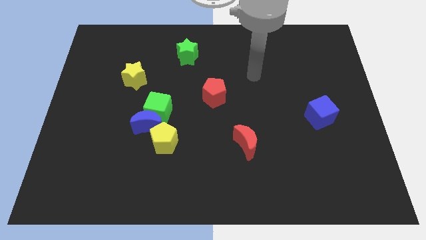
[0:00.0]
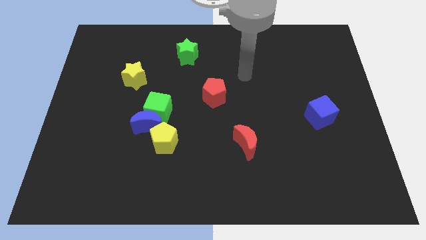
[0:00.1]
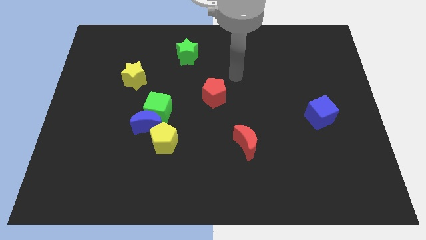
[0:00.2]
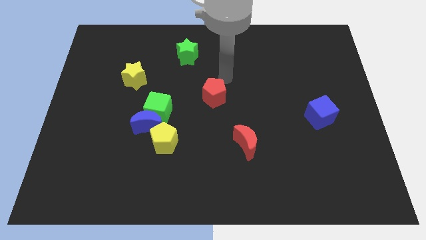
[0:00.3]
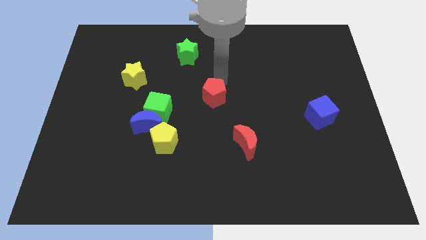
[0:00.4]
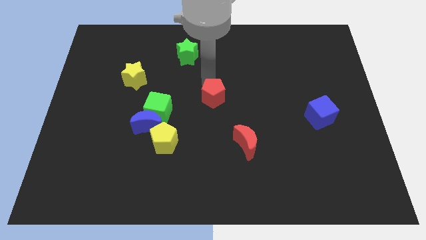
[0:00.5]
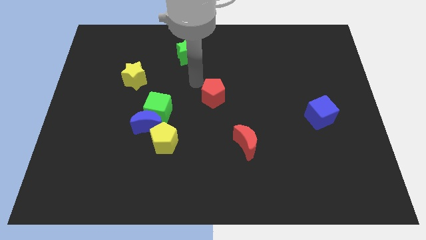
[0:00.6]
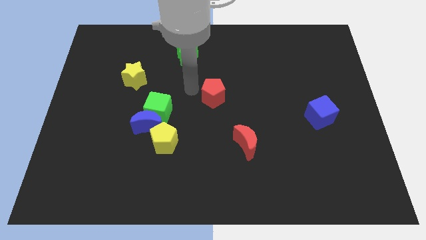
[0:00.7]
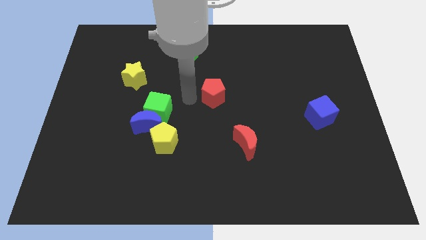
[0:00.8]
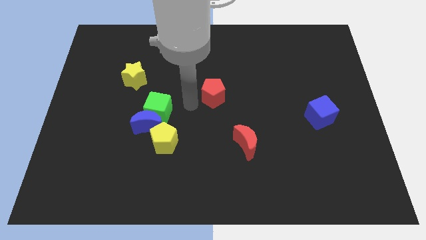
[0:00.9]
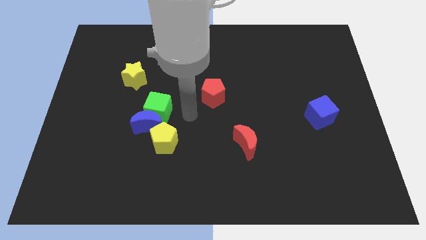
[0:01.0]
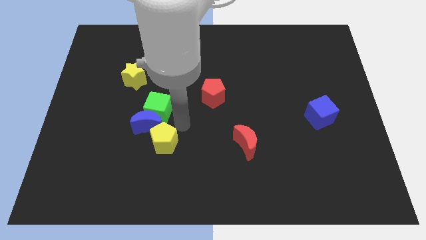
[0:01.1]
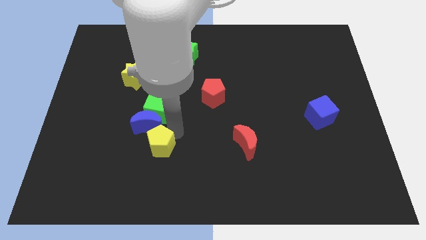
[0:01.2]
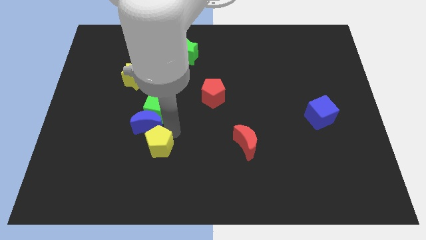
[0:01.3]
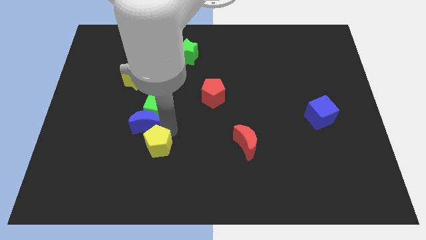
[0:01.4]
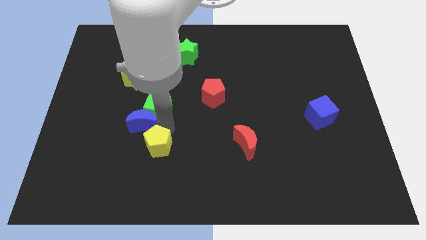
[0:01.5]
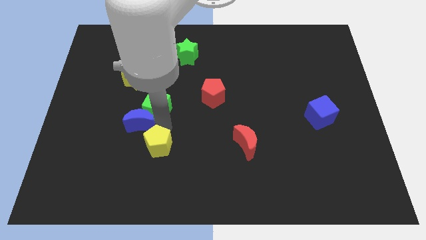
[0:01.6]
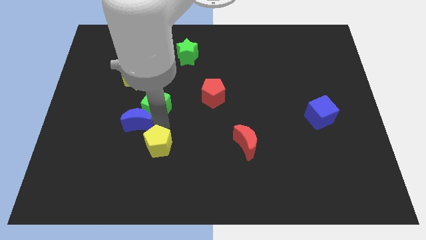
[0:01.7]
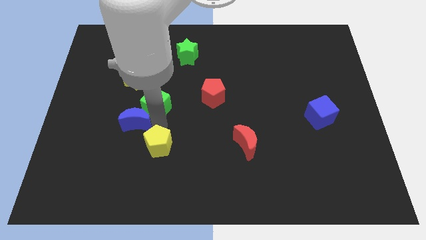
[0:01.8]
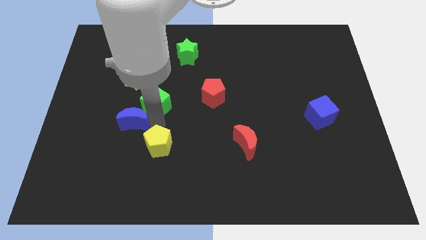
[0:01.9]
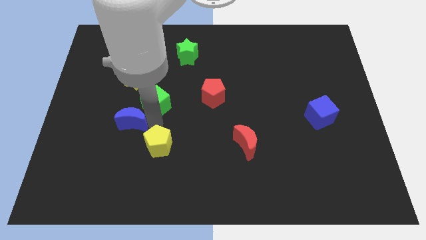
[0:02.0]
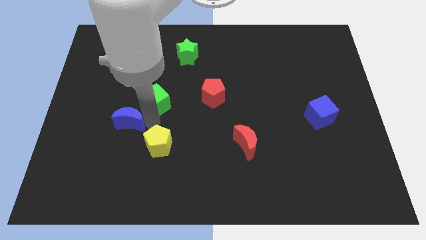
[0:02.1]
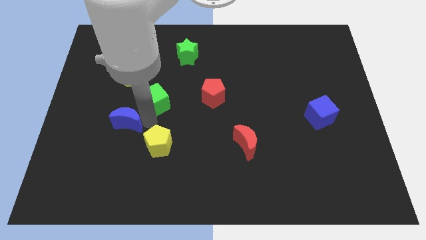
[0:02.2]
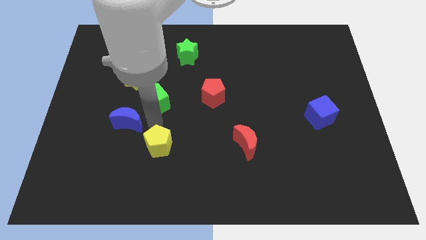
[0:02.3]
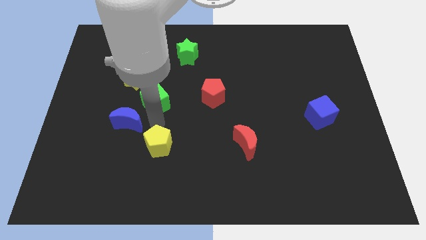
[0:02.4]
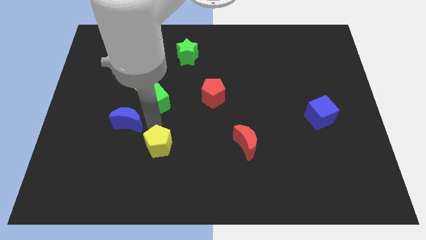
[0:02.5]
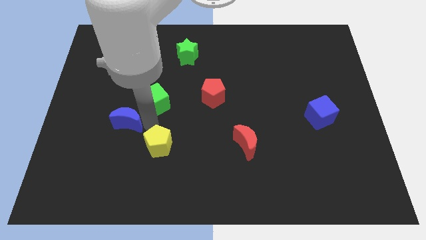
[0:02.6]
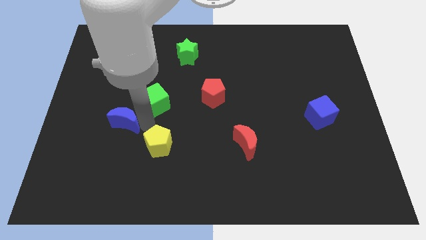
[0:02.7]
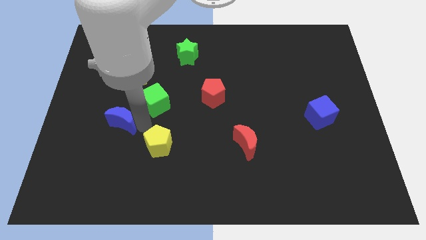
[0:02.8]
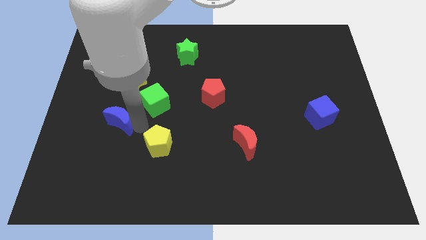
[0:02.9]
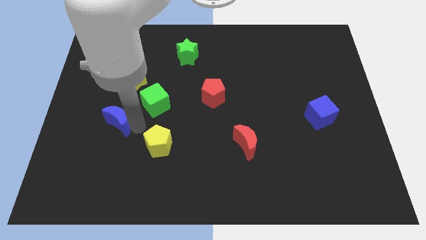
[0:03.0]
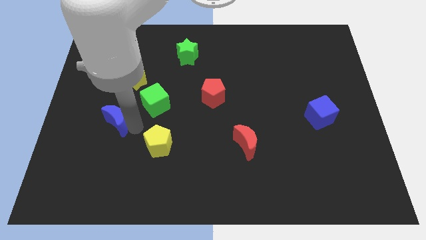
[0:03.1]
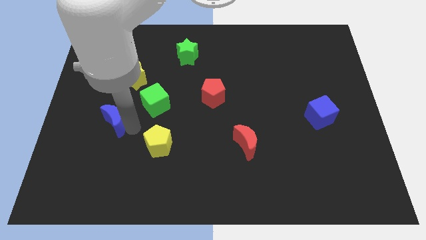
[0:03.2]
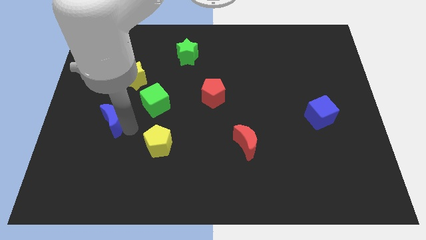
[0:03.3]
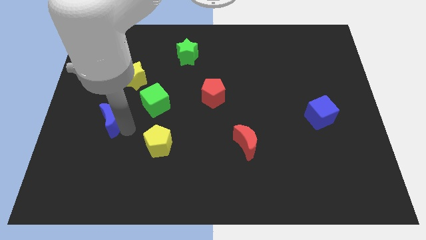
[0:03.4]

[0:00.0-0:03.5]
pull the blue moon apart from the green cube and yellow pentagon

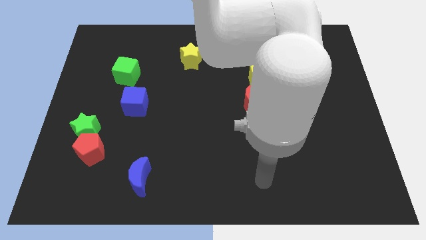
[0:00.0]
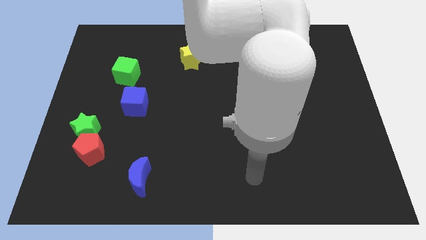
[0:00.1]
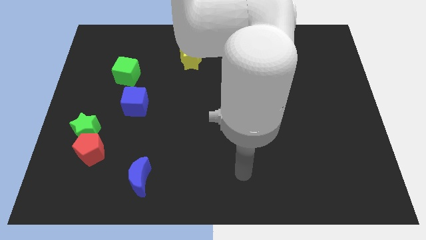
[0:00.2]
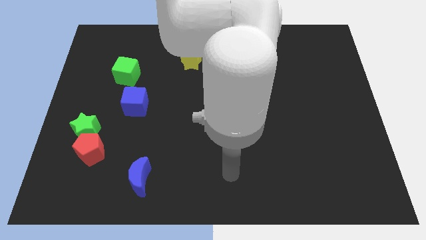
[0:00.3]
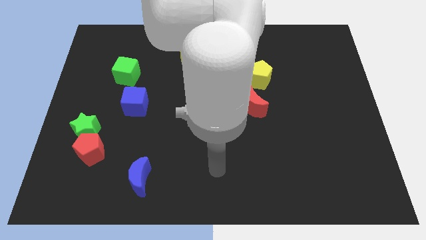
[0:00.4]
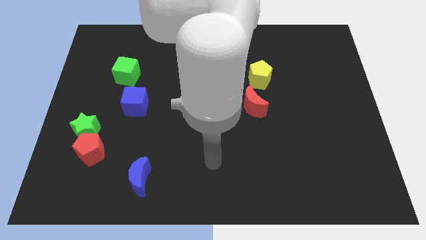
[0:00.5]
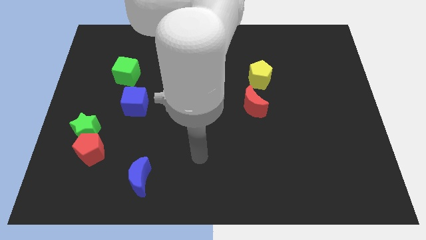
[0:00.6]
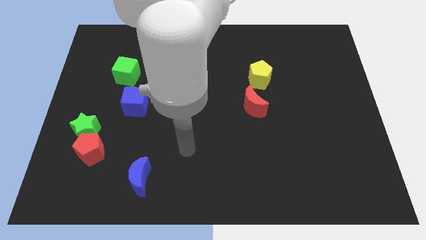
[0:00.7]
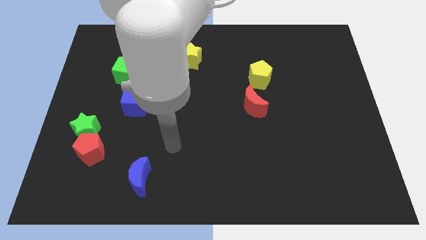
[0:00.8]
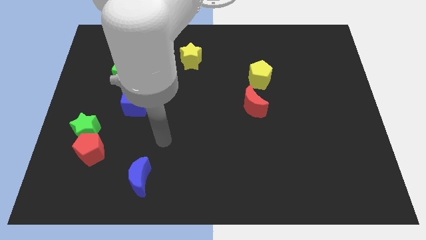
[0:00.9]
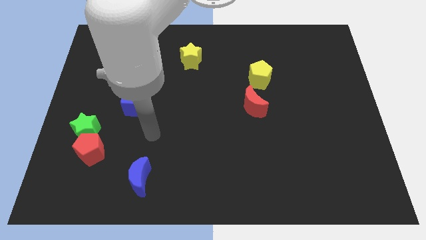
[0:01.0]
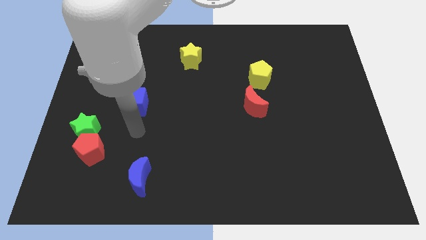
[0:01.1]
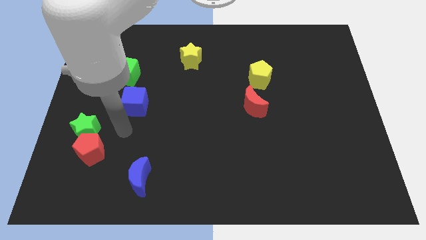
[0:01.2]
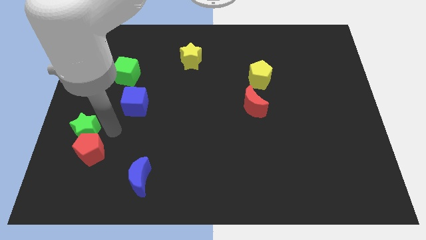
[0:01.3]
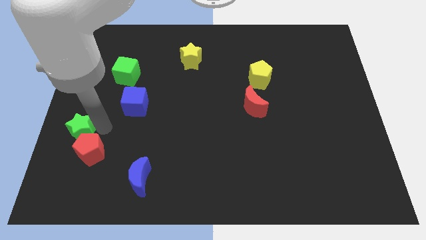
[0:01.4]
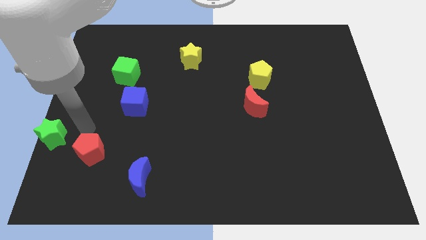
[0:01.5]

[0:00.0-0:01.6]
move the red pentagon away from the green star

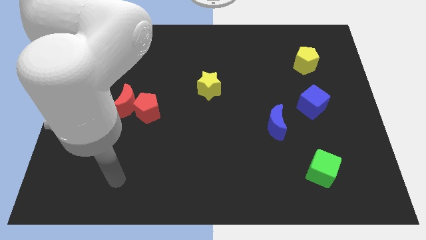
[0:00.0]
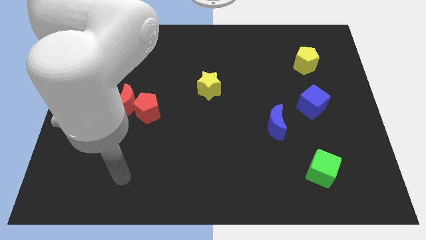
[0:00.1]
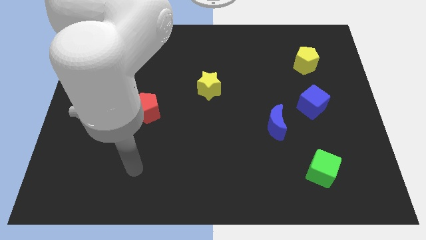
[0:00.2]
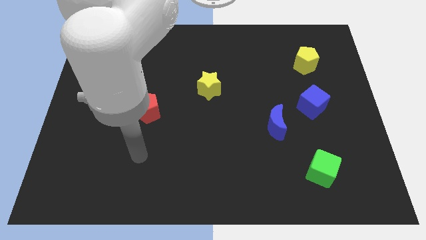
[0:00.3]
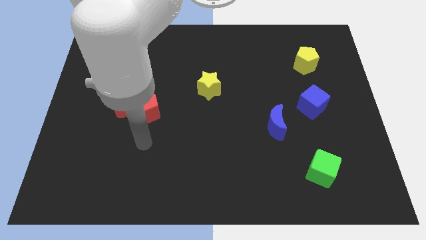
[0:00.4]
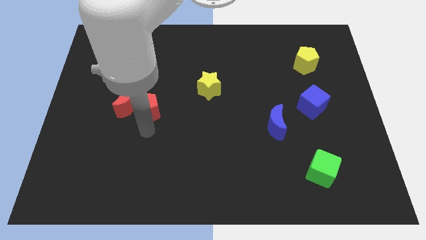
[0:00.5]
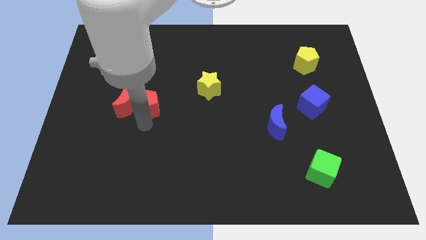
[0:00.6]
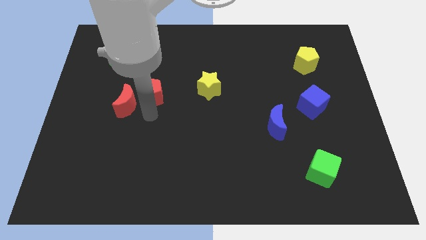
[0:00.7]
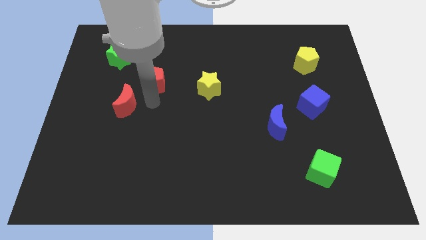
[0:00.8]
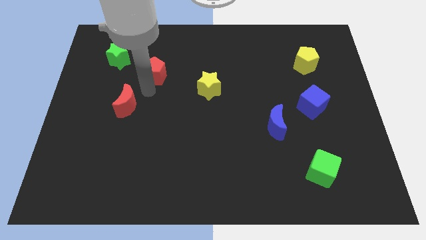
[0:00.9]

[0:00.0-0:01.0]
separate the red moon from the red pentagon

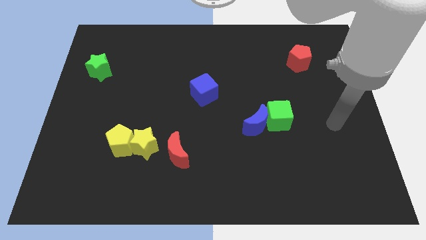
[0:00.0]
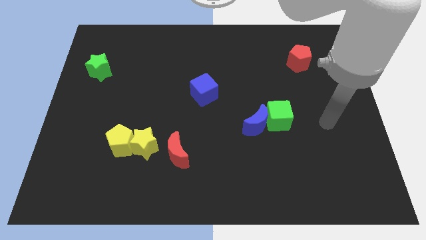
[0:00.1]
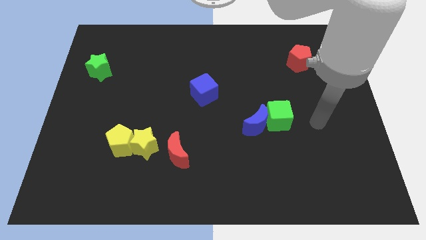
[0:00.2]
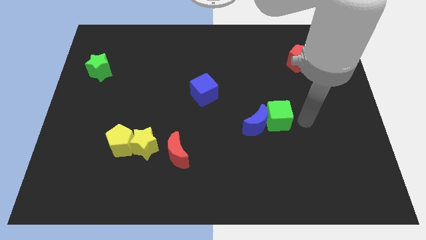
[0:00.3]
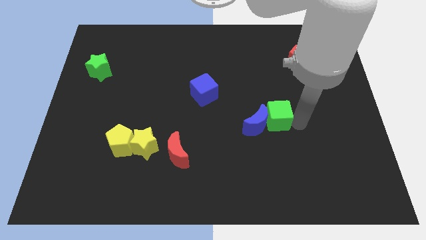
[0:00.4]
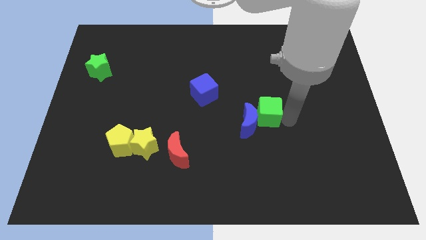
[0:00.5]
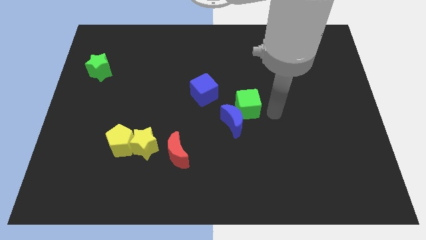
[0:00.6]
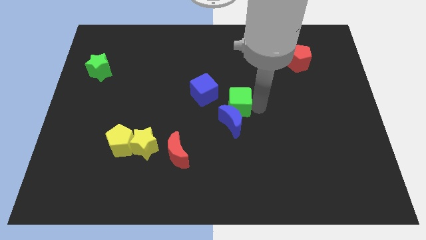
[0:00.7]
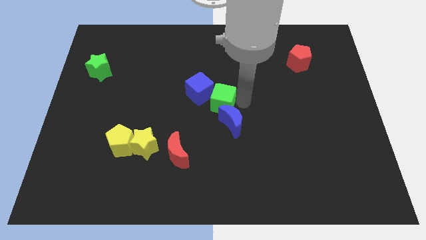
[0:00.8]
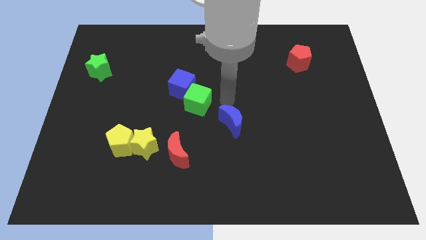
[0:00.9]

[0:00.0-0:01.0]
move the blue moon away from the green cube

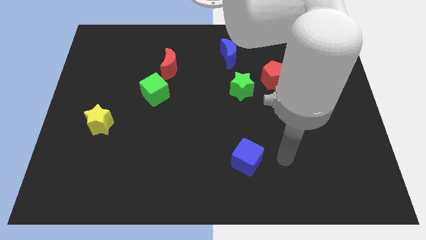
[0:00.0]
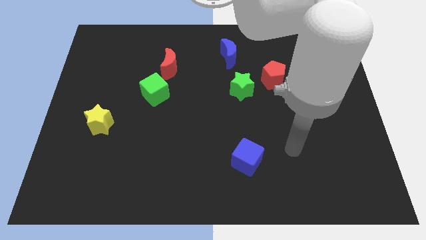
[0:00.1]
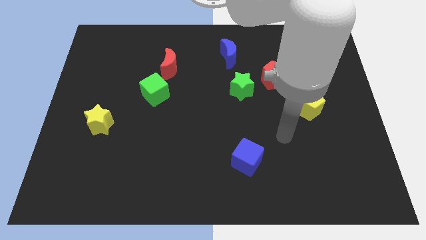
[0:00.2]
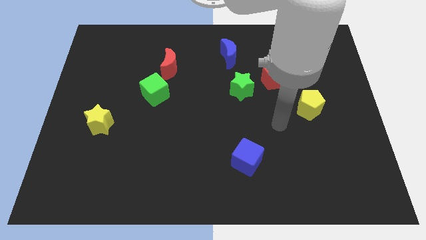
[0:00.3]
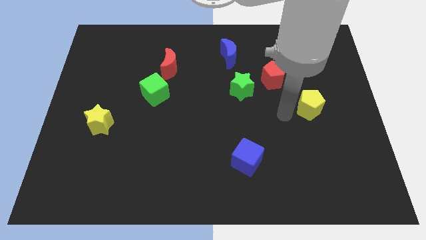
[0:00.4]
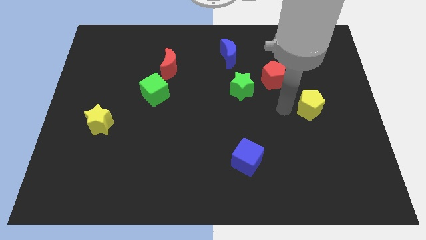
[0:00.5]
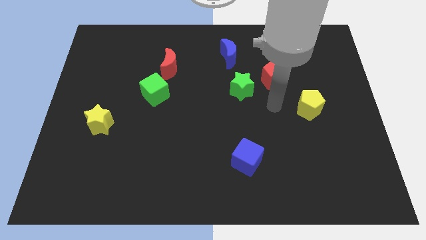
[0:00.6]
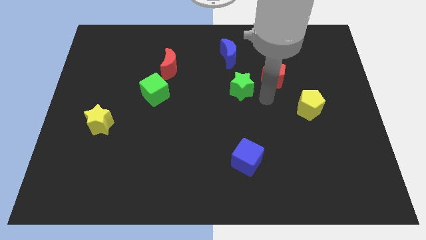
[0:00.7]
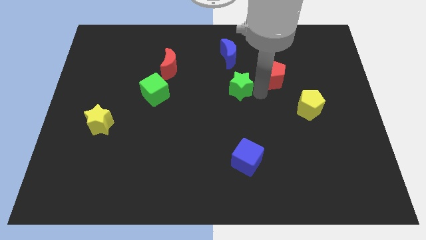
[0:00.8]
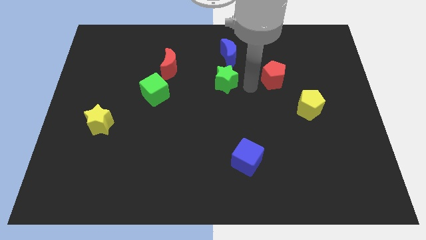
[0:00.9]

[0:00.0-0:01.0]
separate the red pentagon from the green star

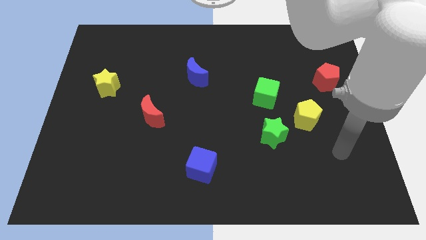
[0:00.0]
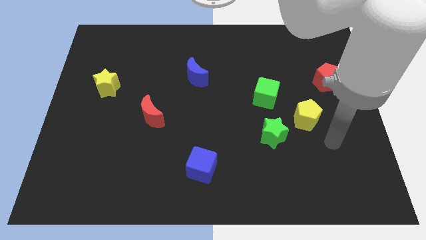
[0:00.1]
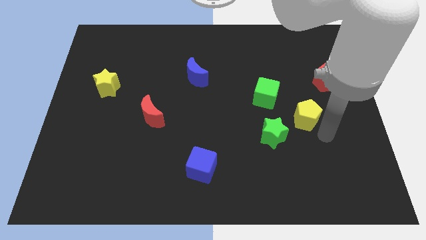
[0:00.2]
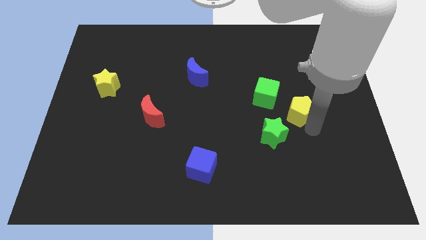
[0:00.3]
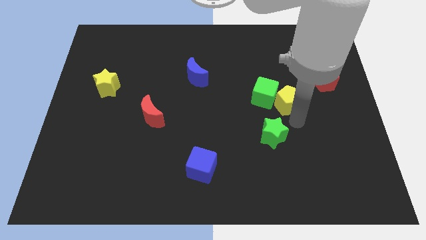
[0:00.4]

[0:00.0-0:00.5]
separate the green star from the yellow pentagon

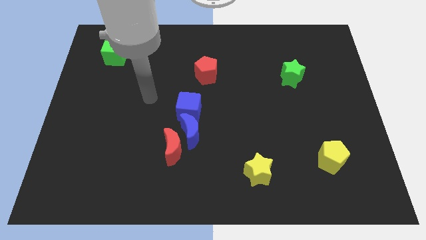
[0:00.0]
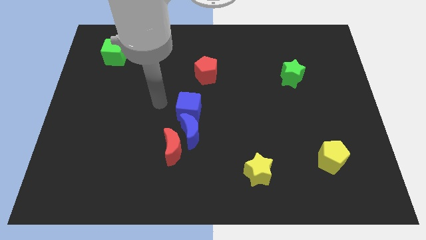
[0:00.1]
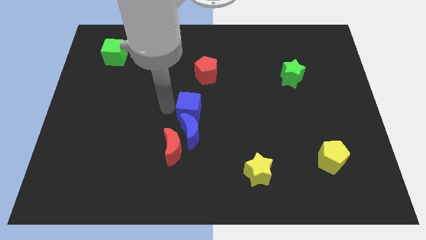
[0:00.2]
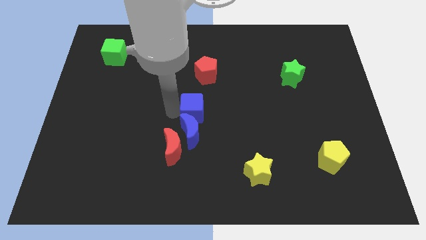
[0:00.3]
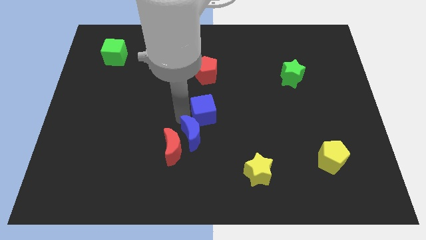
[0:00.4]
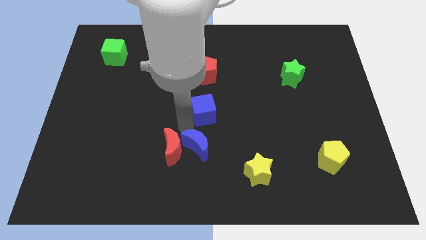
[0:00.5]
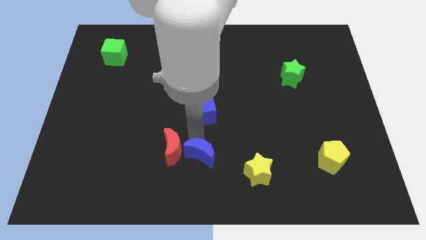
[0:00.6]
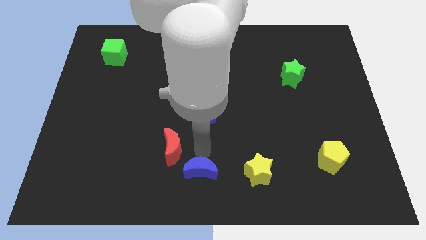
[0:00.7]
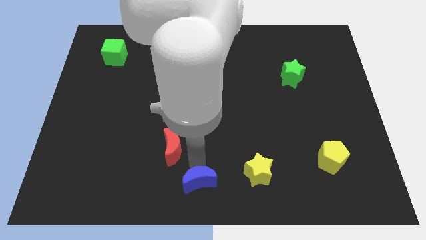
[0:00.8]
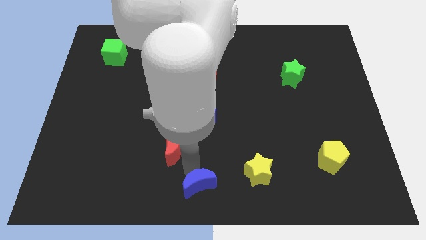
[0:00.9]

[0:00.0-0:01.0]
pull the red moon apart from the blue moon
